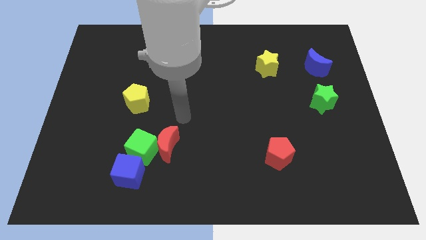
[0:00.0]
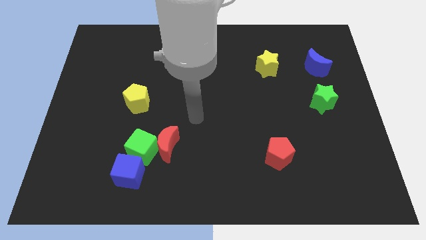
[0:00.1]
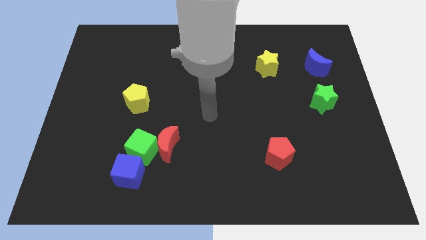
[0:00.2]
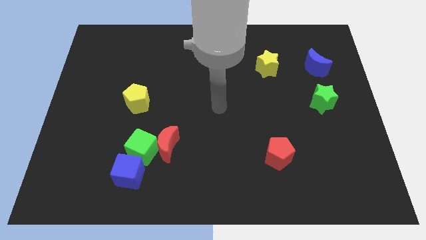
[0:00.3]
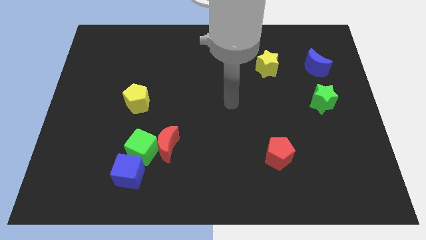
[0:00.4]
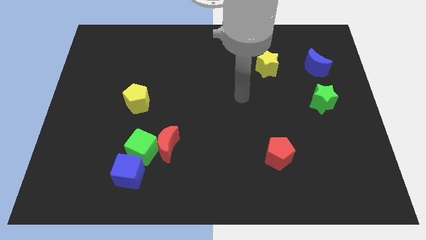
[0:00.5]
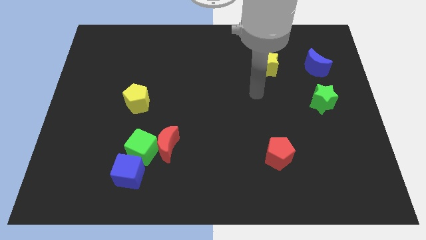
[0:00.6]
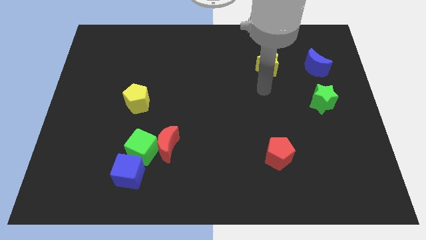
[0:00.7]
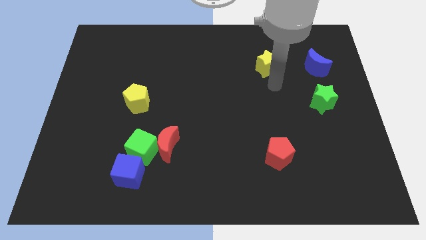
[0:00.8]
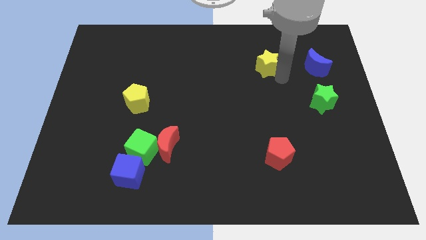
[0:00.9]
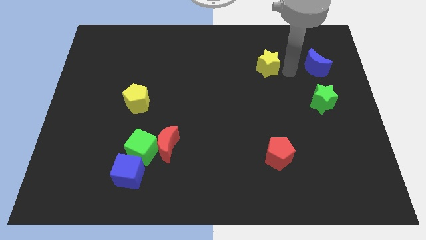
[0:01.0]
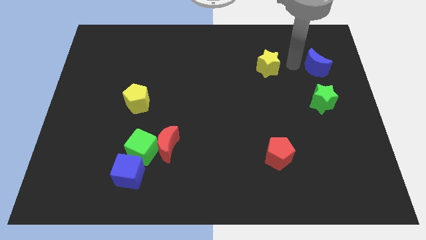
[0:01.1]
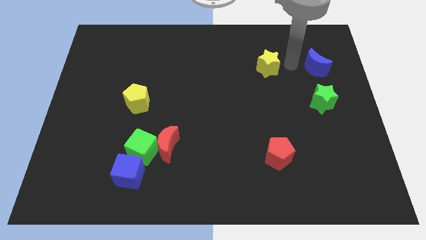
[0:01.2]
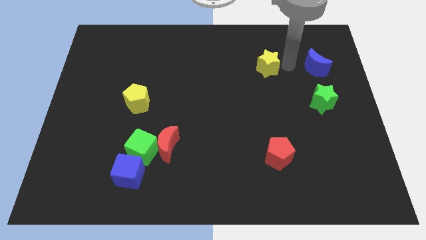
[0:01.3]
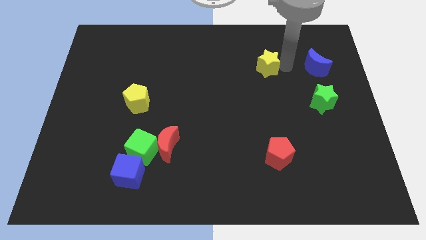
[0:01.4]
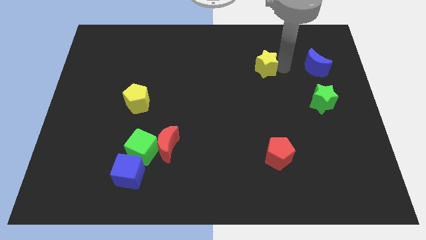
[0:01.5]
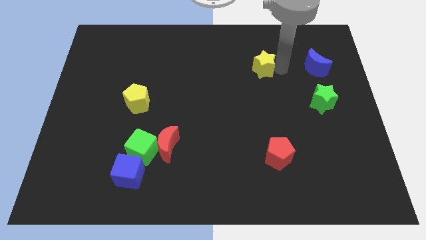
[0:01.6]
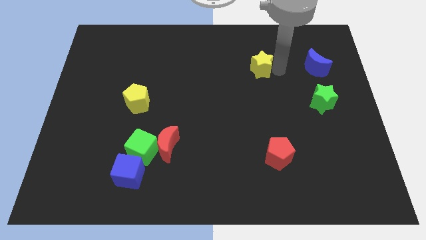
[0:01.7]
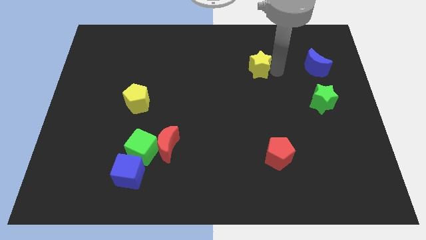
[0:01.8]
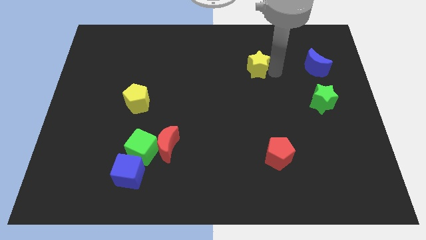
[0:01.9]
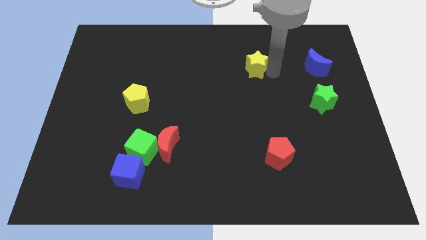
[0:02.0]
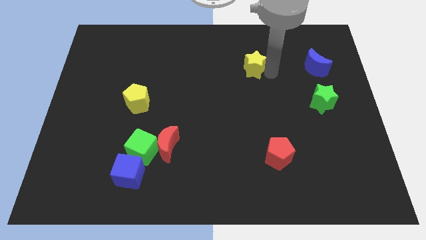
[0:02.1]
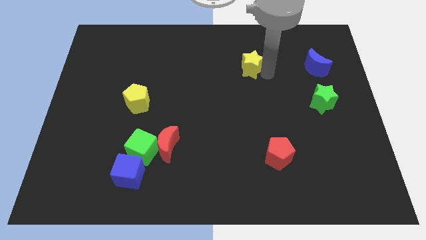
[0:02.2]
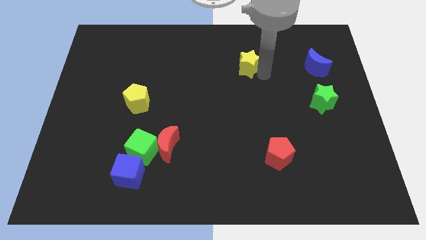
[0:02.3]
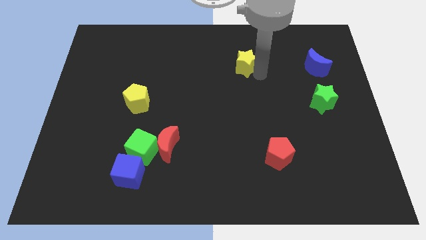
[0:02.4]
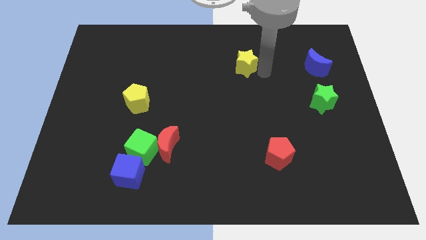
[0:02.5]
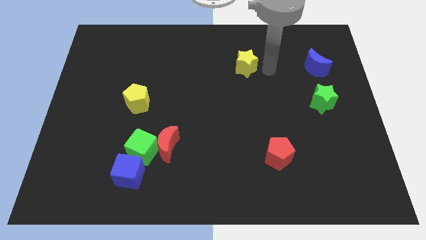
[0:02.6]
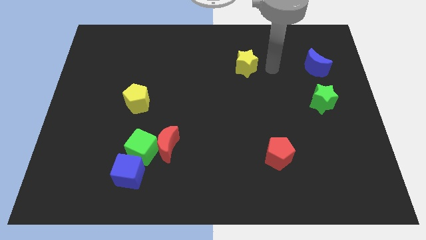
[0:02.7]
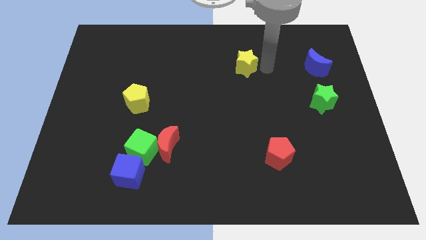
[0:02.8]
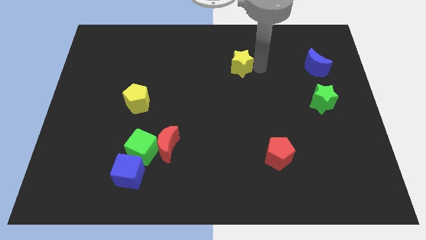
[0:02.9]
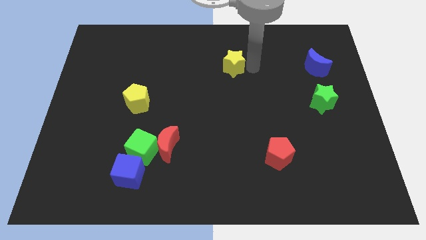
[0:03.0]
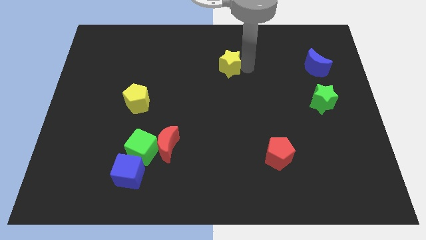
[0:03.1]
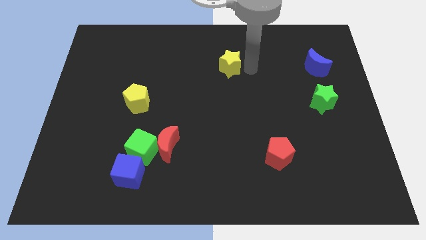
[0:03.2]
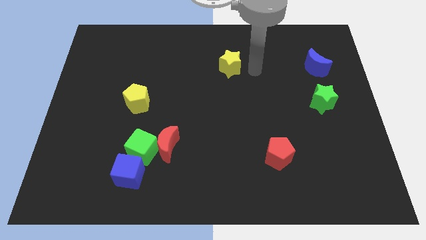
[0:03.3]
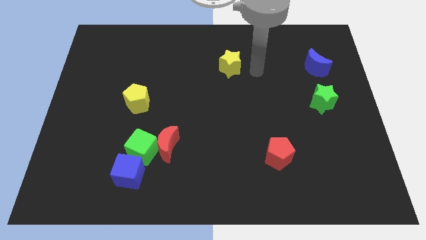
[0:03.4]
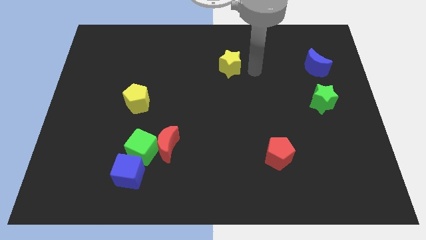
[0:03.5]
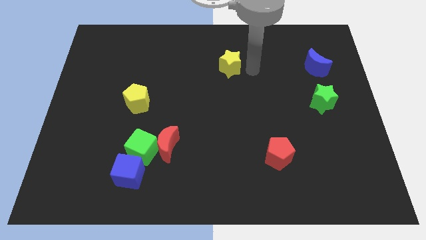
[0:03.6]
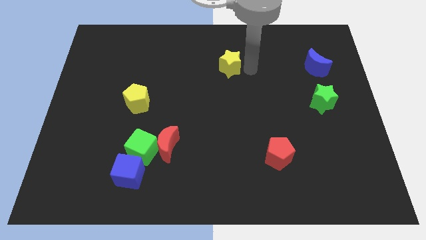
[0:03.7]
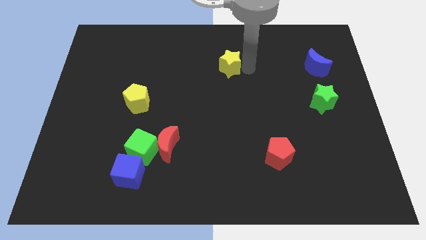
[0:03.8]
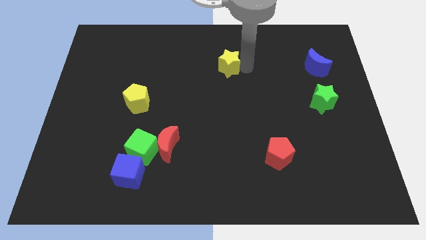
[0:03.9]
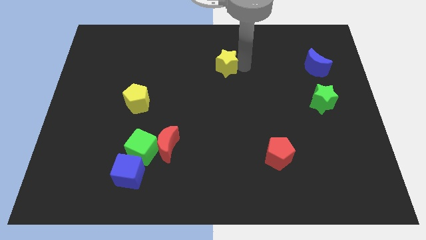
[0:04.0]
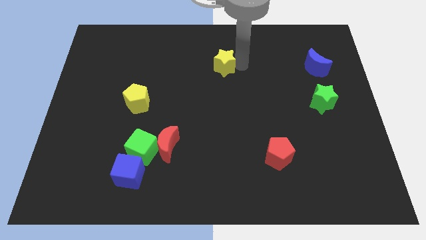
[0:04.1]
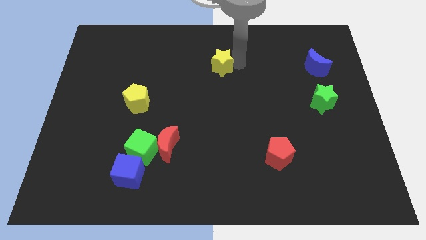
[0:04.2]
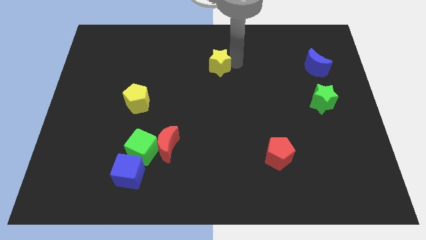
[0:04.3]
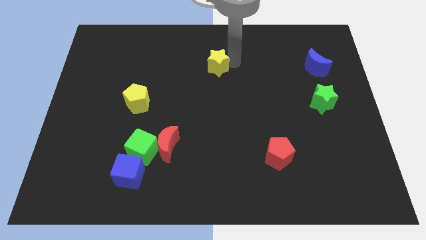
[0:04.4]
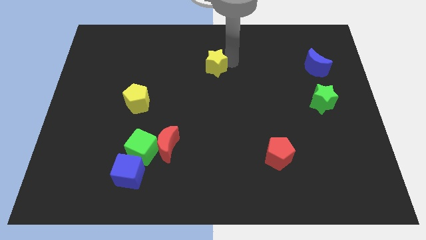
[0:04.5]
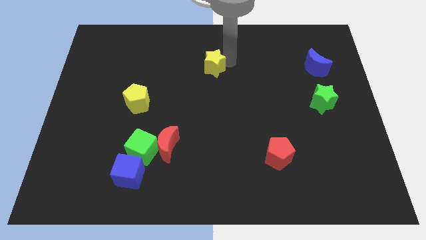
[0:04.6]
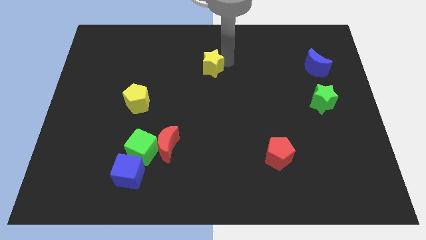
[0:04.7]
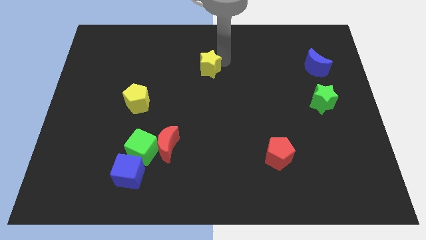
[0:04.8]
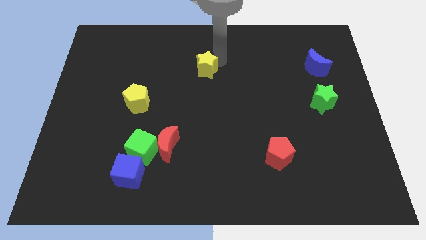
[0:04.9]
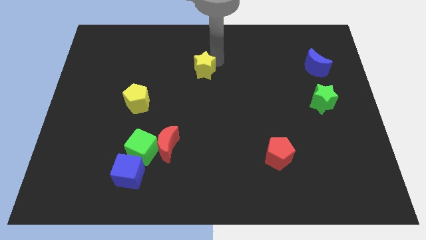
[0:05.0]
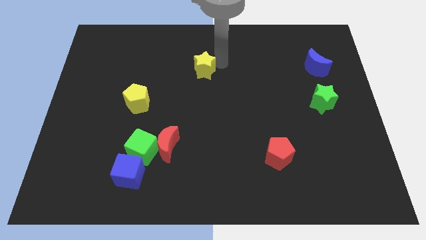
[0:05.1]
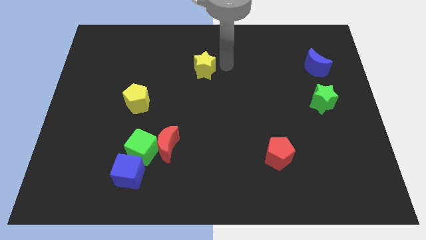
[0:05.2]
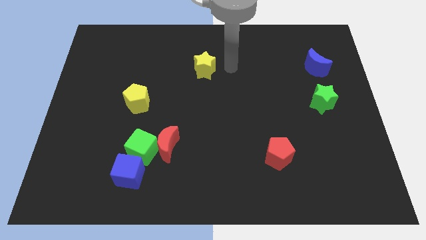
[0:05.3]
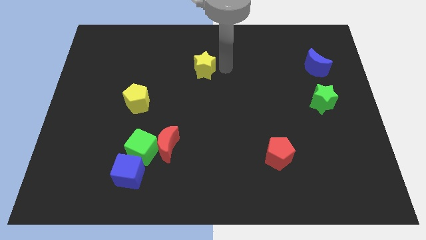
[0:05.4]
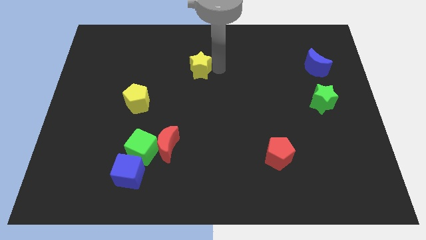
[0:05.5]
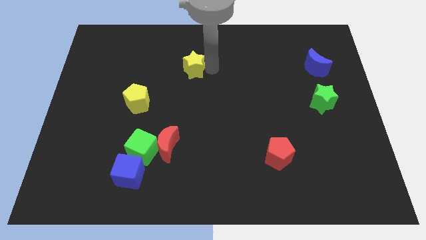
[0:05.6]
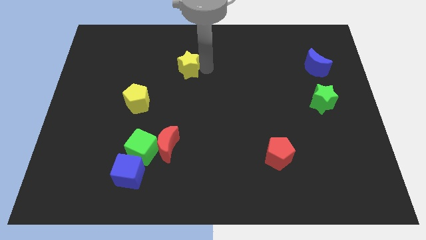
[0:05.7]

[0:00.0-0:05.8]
slide the yellow star to the left

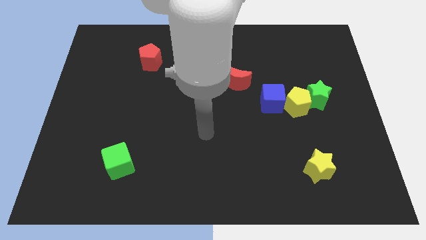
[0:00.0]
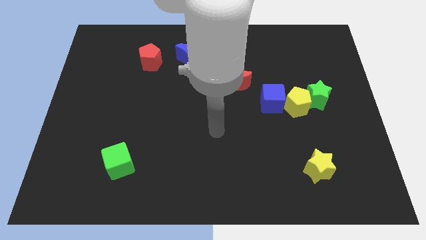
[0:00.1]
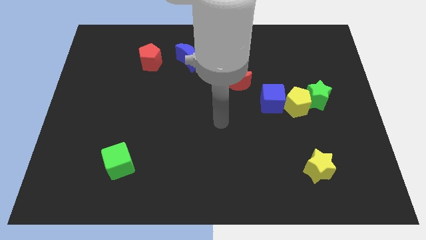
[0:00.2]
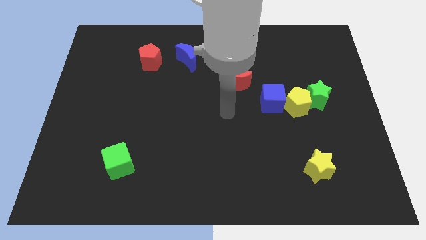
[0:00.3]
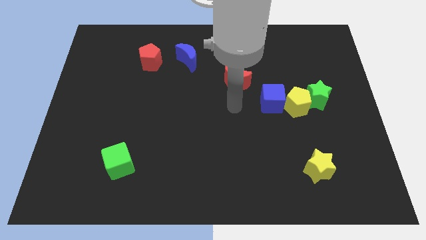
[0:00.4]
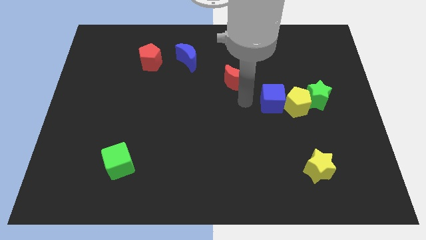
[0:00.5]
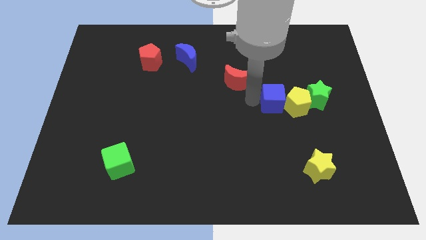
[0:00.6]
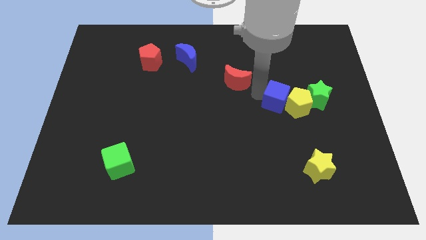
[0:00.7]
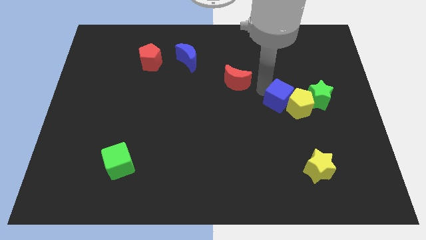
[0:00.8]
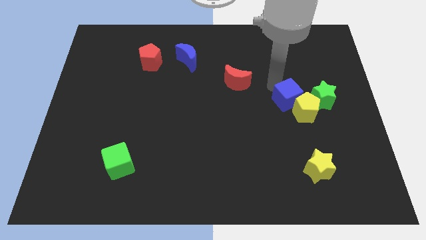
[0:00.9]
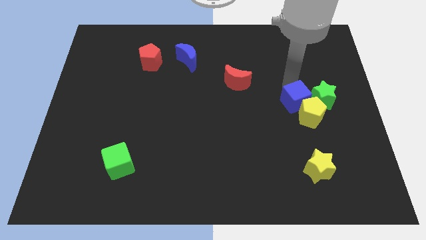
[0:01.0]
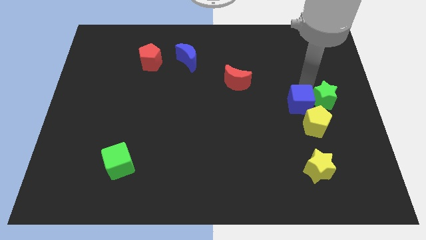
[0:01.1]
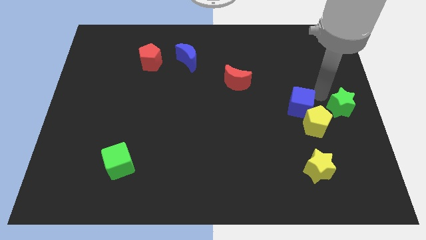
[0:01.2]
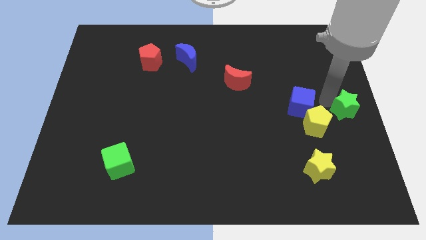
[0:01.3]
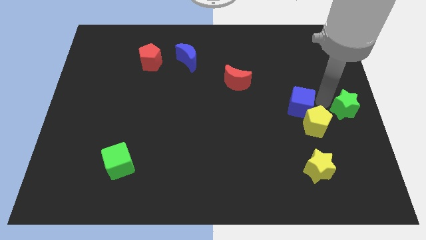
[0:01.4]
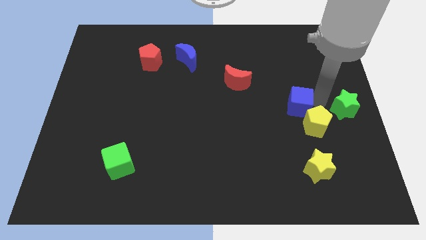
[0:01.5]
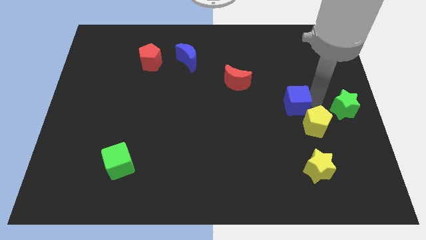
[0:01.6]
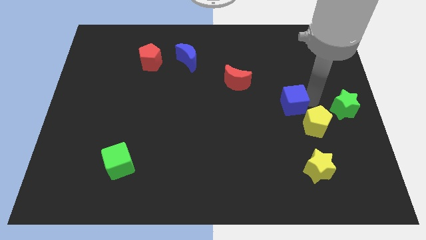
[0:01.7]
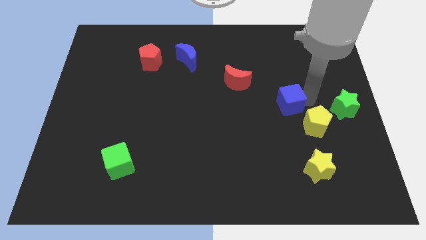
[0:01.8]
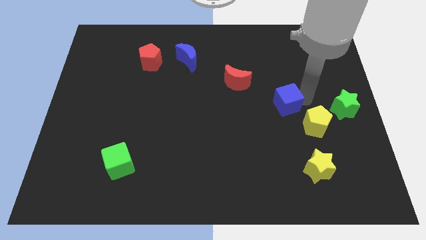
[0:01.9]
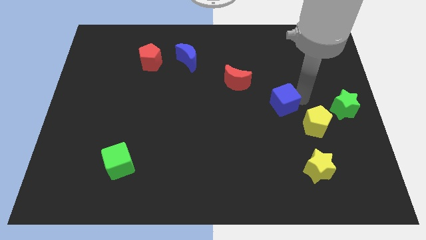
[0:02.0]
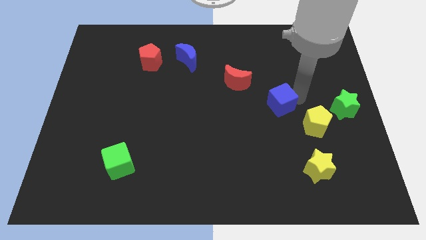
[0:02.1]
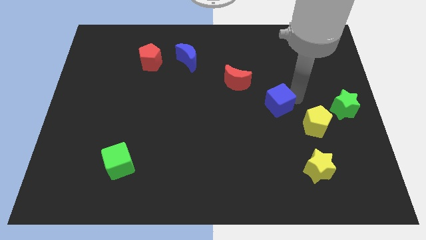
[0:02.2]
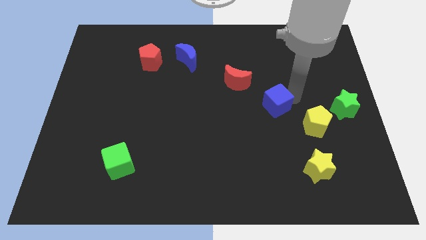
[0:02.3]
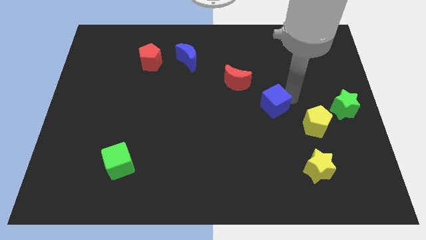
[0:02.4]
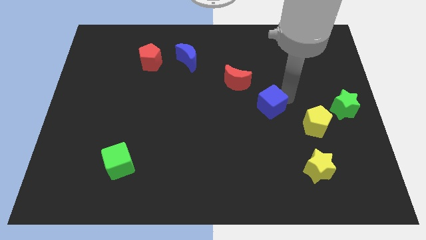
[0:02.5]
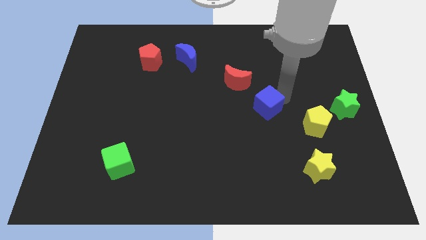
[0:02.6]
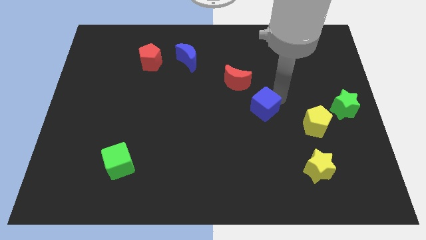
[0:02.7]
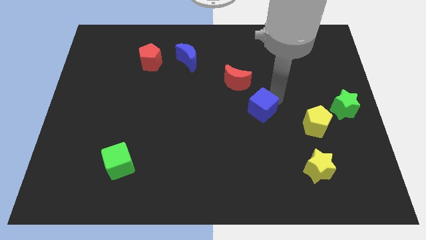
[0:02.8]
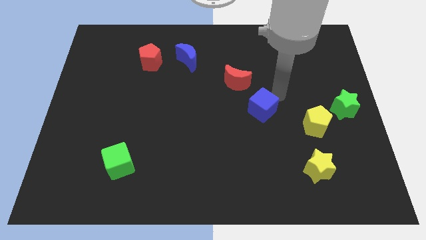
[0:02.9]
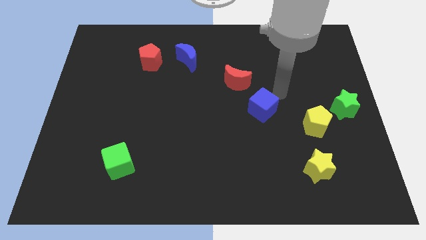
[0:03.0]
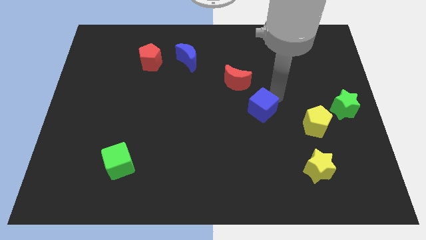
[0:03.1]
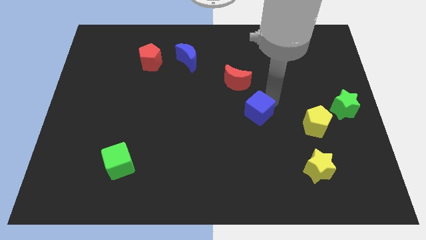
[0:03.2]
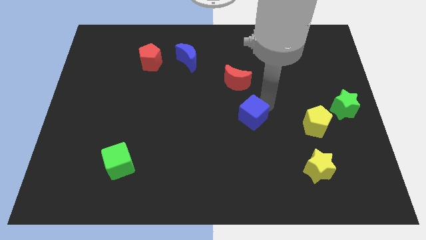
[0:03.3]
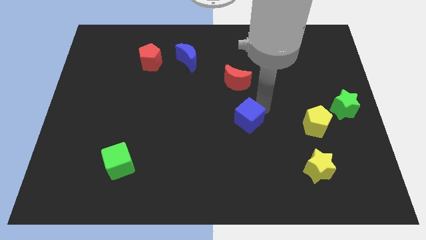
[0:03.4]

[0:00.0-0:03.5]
move the blue cube down and to the left a bit
